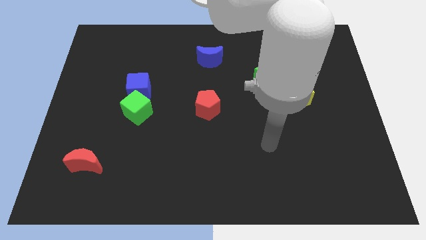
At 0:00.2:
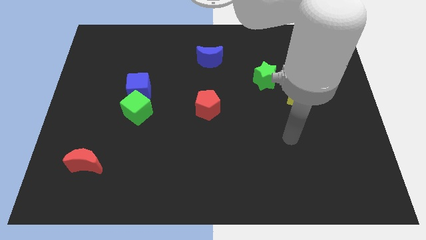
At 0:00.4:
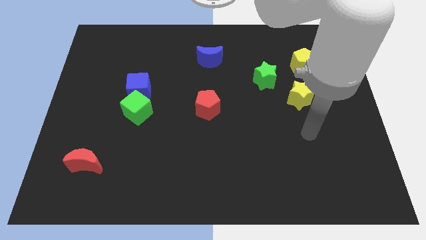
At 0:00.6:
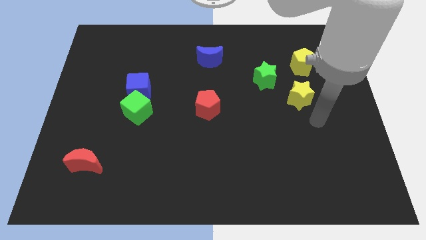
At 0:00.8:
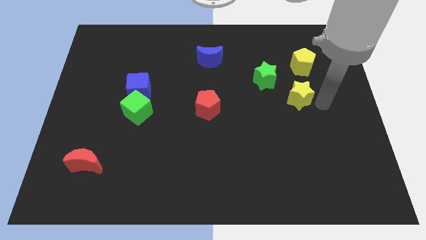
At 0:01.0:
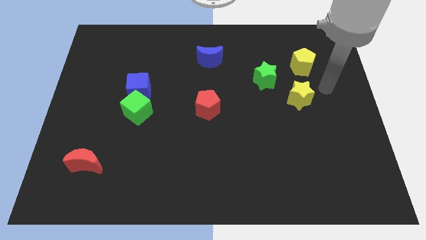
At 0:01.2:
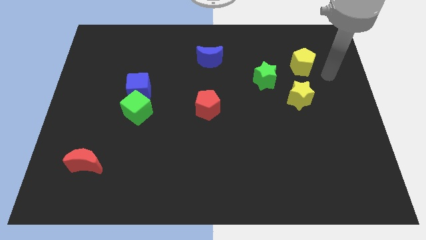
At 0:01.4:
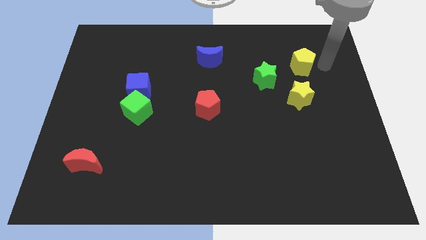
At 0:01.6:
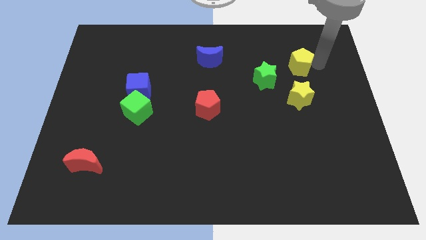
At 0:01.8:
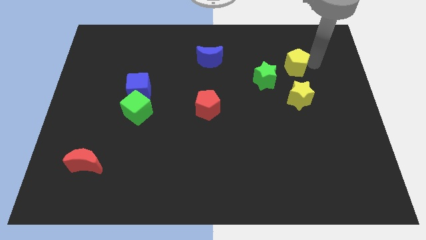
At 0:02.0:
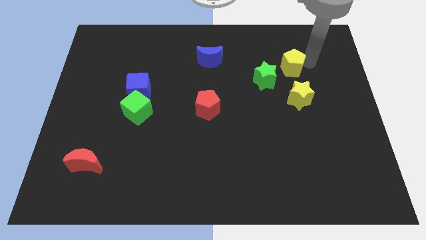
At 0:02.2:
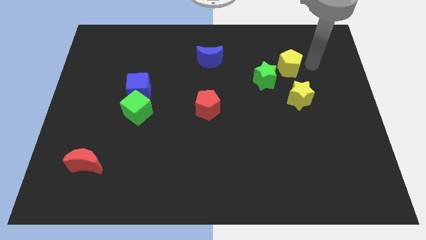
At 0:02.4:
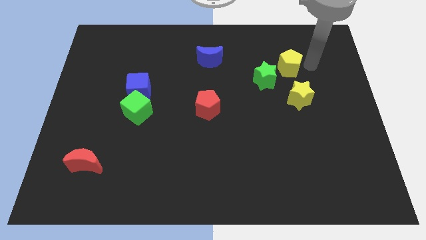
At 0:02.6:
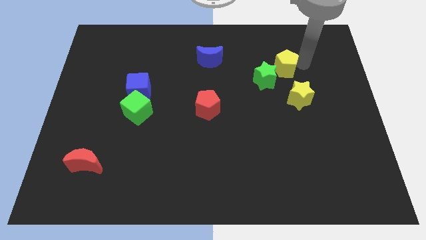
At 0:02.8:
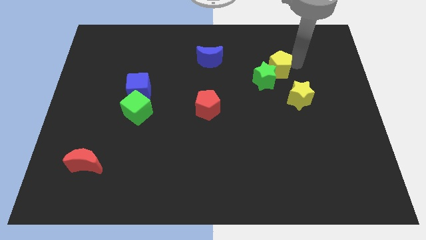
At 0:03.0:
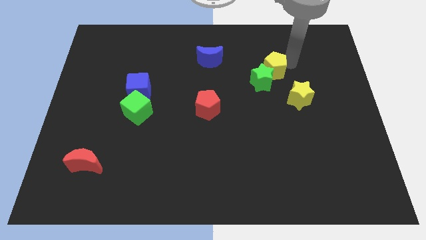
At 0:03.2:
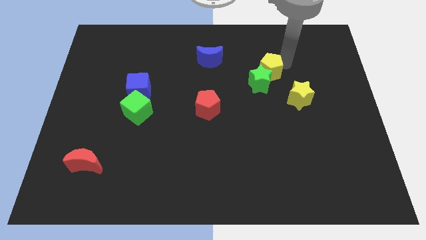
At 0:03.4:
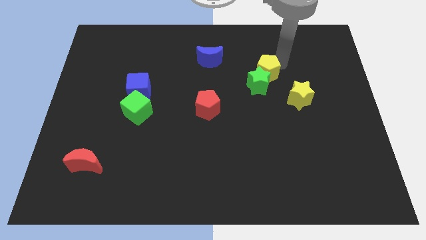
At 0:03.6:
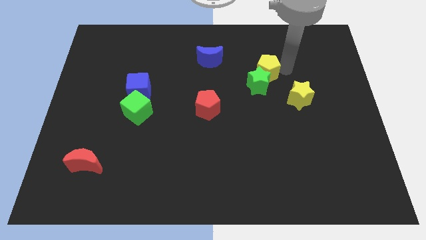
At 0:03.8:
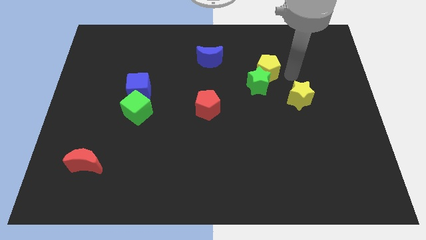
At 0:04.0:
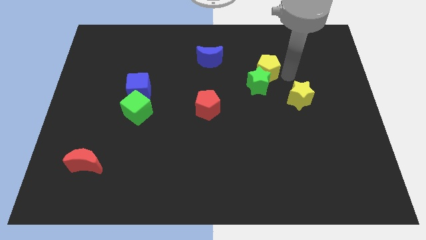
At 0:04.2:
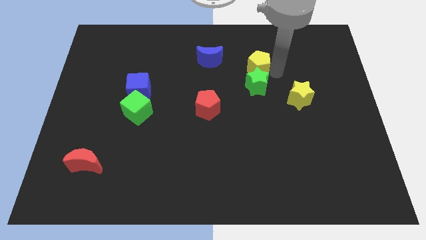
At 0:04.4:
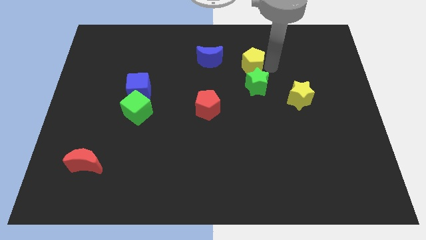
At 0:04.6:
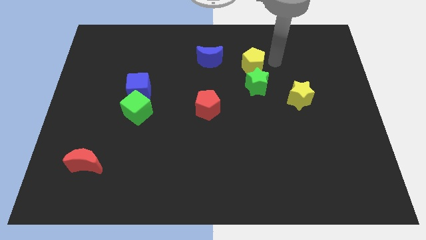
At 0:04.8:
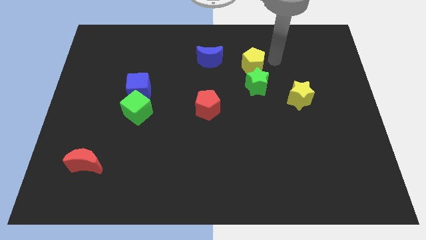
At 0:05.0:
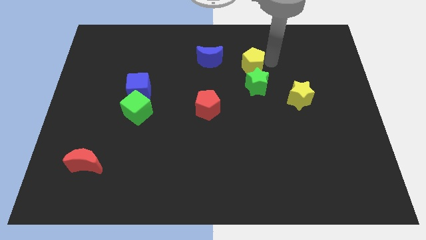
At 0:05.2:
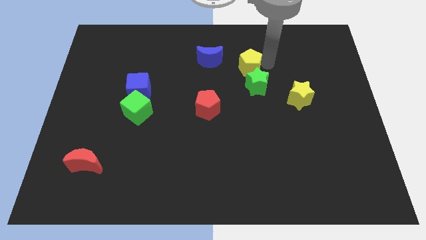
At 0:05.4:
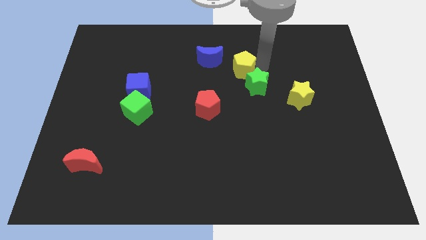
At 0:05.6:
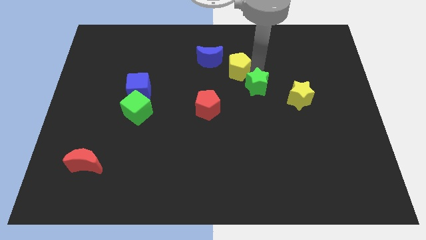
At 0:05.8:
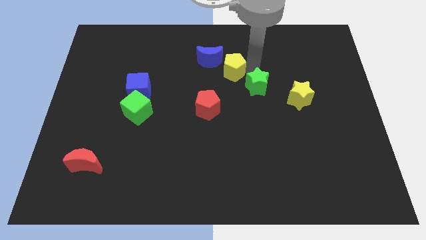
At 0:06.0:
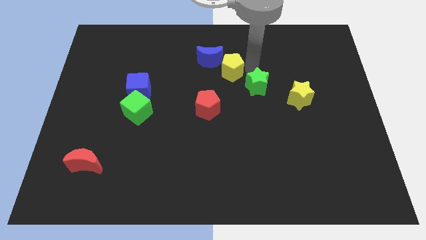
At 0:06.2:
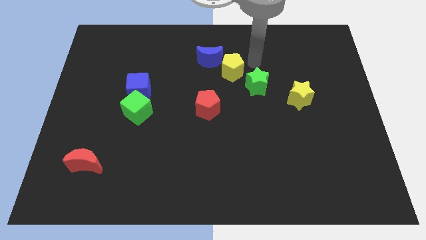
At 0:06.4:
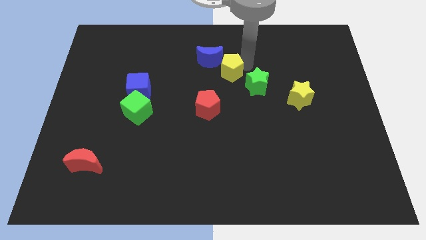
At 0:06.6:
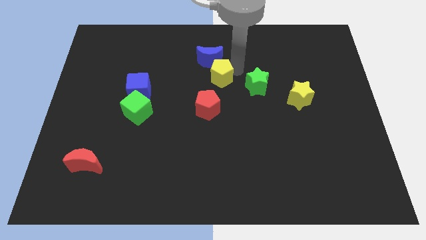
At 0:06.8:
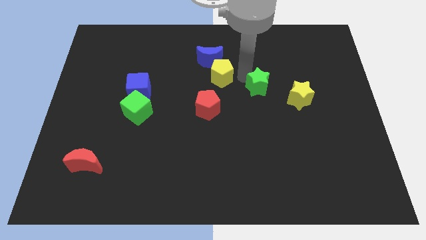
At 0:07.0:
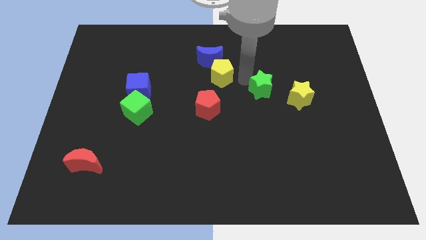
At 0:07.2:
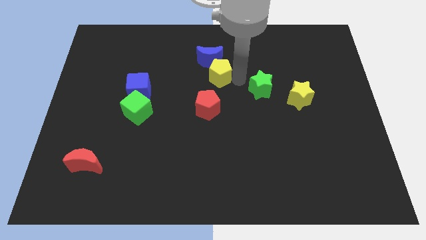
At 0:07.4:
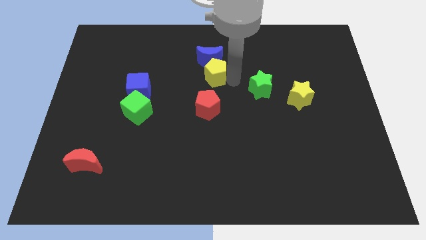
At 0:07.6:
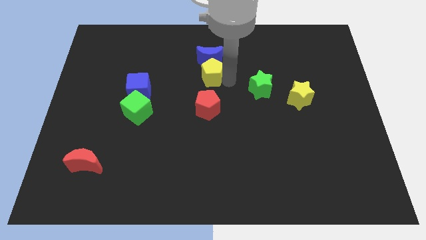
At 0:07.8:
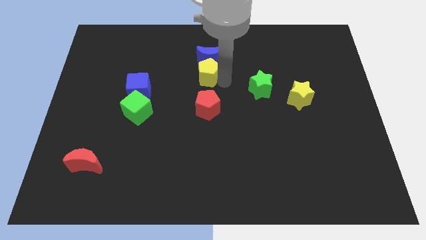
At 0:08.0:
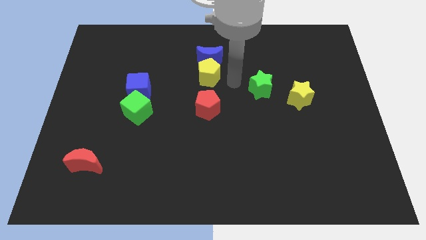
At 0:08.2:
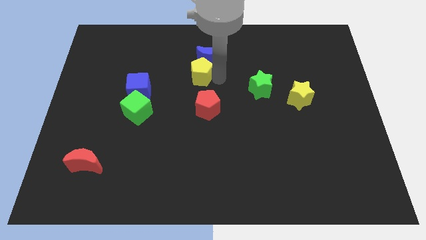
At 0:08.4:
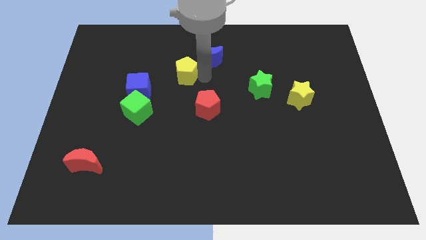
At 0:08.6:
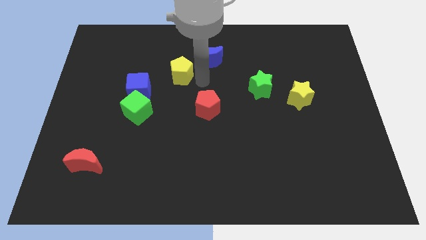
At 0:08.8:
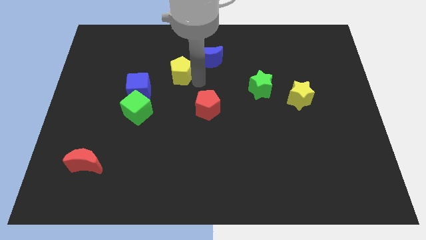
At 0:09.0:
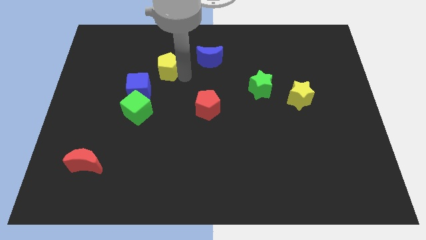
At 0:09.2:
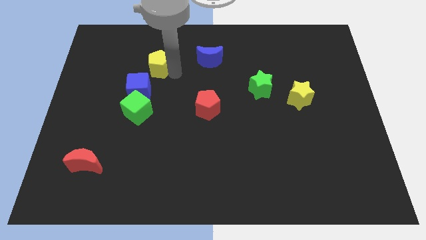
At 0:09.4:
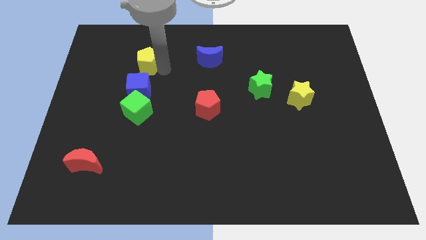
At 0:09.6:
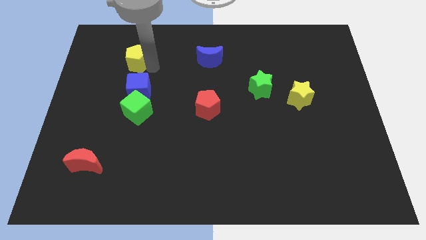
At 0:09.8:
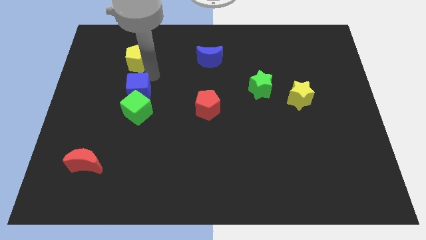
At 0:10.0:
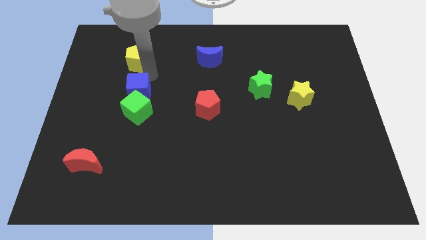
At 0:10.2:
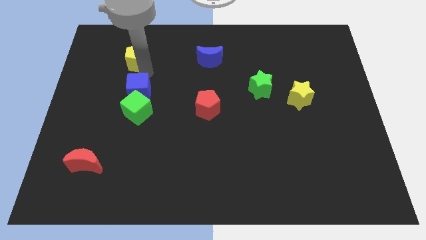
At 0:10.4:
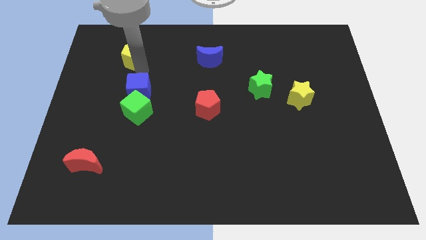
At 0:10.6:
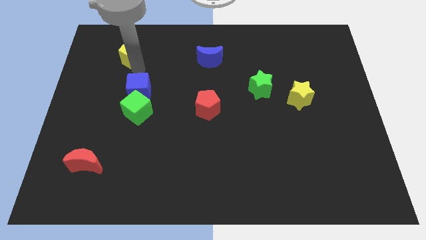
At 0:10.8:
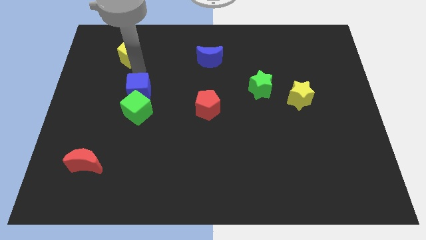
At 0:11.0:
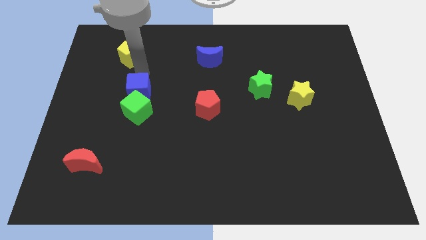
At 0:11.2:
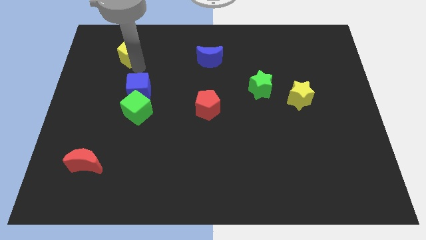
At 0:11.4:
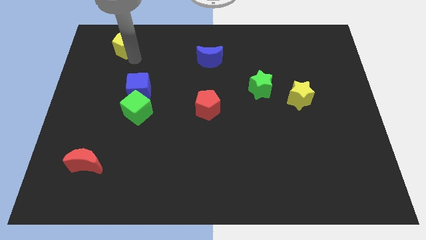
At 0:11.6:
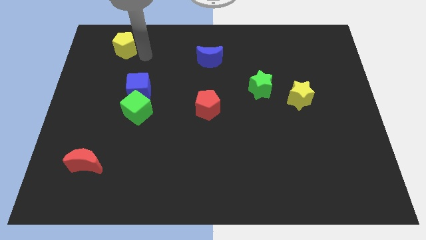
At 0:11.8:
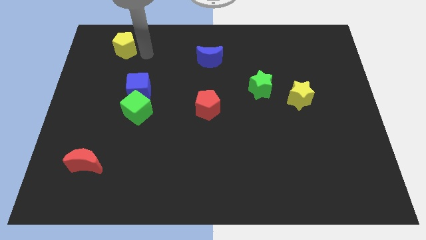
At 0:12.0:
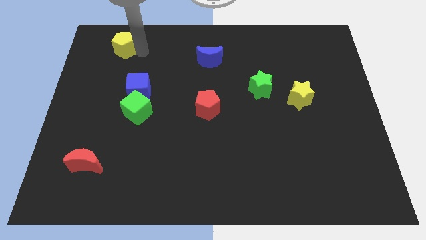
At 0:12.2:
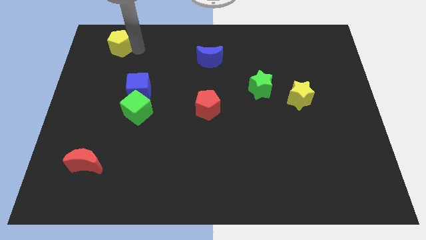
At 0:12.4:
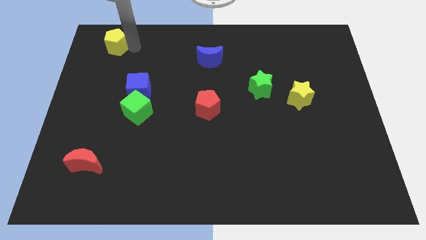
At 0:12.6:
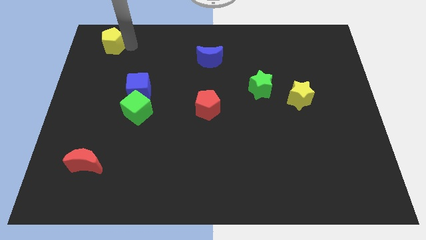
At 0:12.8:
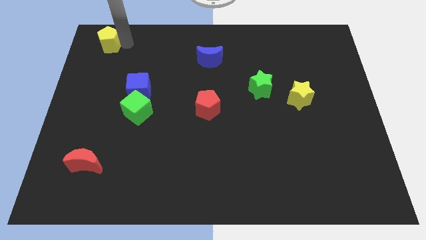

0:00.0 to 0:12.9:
put the yellow pentagon to the top left

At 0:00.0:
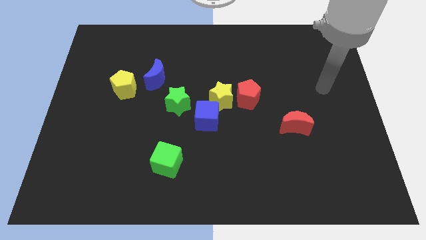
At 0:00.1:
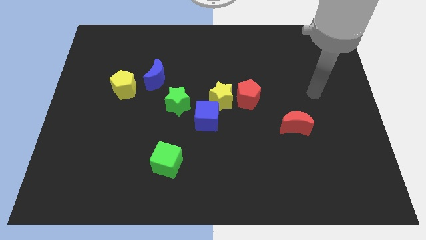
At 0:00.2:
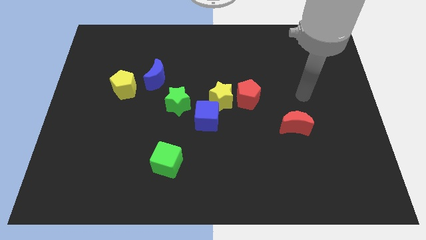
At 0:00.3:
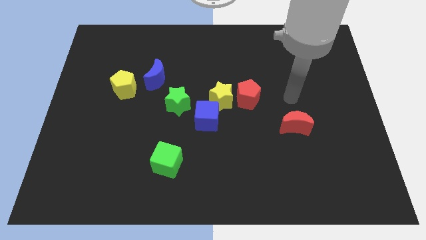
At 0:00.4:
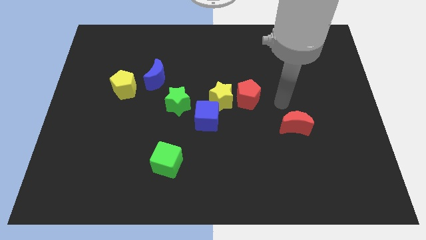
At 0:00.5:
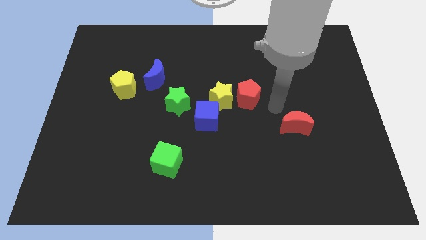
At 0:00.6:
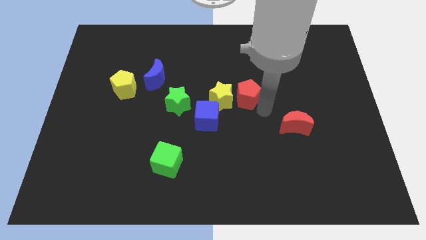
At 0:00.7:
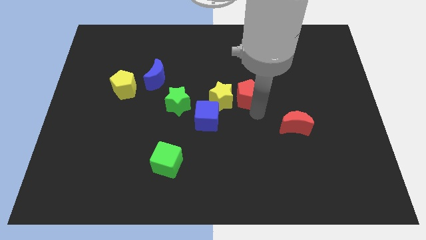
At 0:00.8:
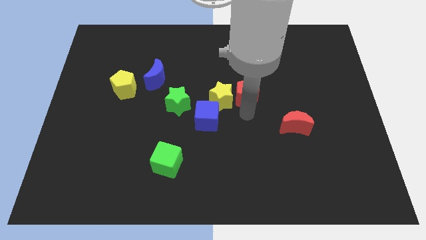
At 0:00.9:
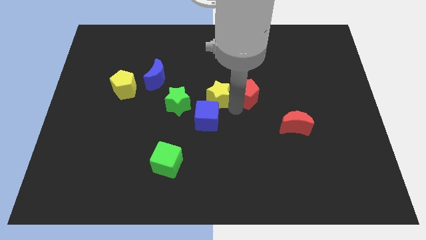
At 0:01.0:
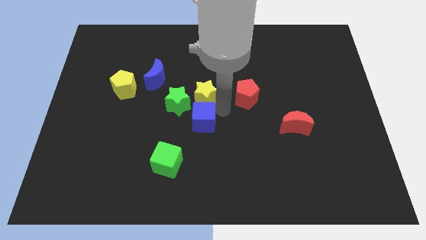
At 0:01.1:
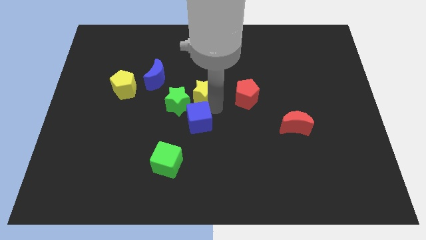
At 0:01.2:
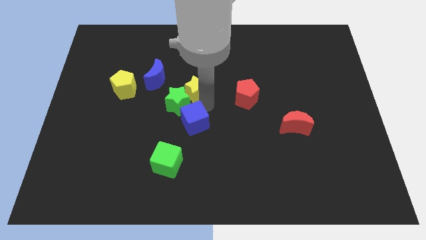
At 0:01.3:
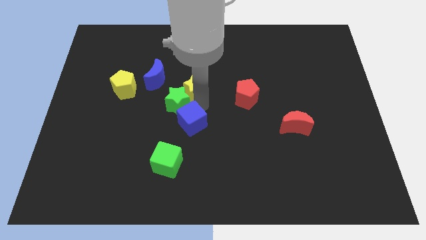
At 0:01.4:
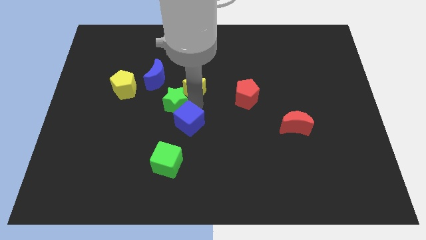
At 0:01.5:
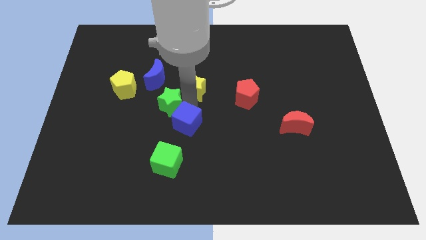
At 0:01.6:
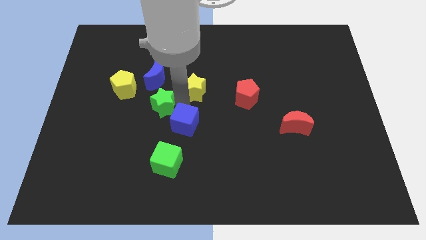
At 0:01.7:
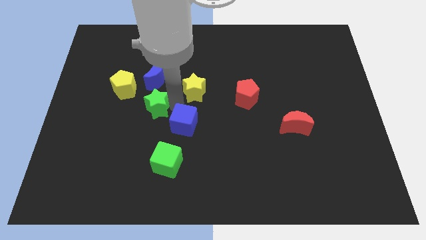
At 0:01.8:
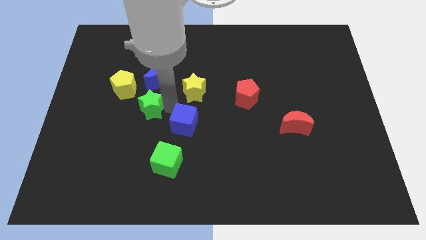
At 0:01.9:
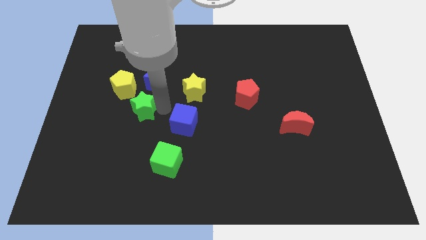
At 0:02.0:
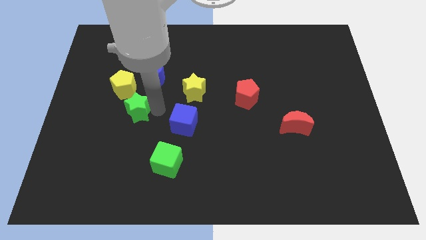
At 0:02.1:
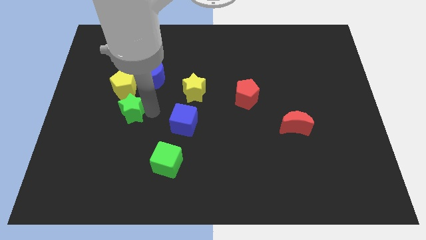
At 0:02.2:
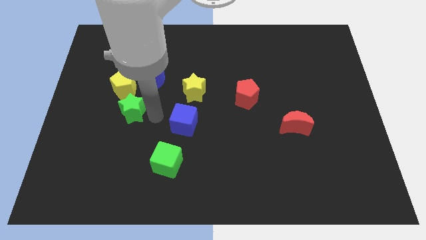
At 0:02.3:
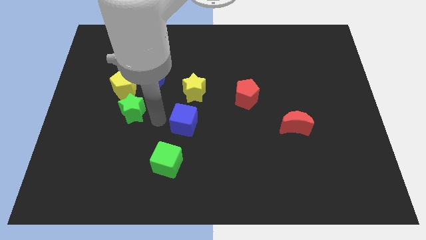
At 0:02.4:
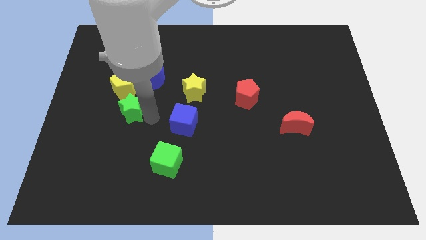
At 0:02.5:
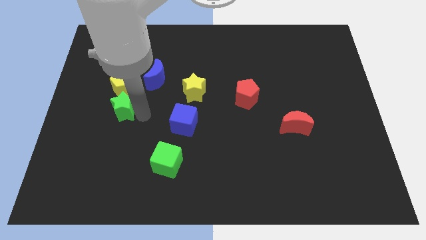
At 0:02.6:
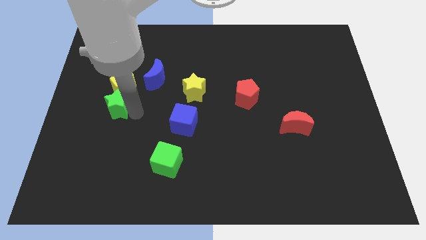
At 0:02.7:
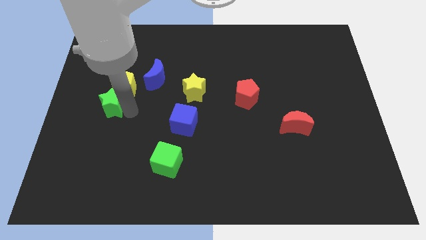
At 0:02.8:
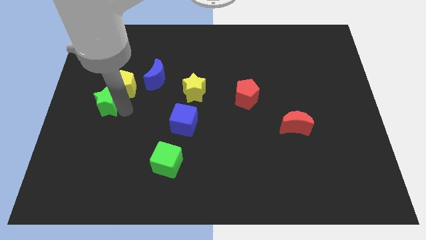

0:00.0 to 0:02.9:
move the green star to the left side of the board
